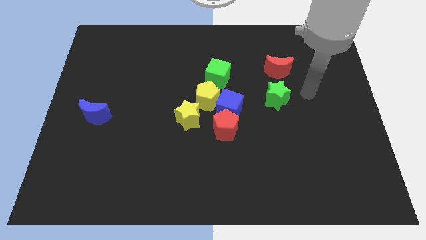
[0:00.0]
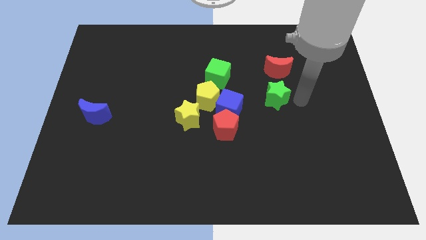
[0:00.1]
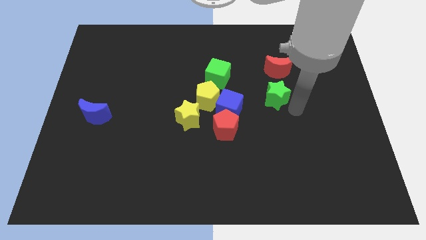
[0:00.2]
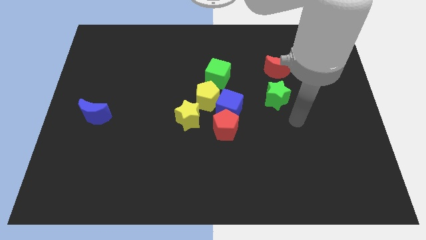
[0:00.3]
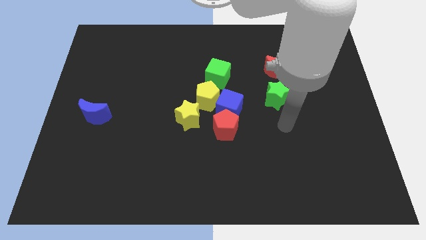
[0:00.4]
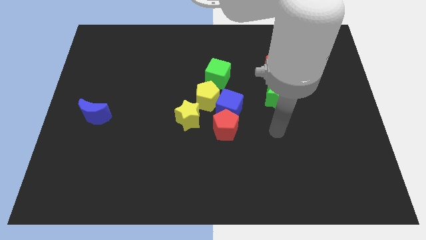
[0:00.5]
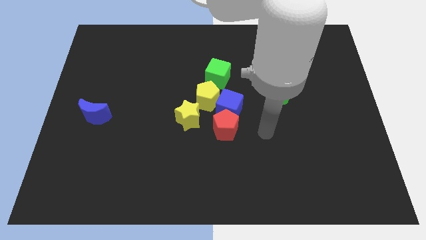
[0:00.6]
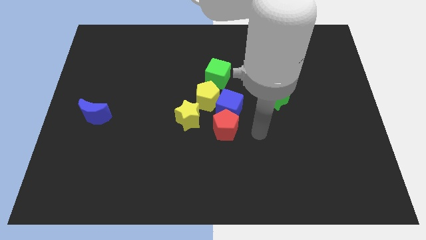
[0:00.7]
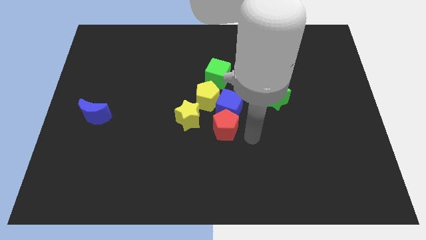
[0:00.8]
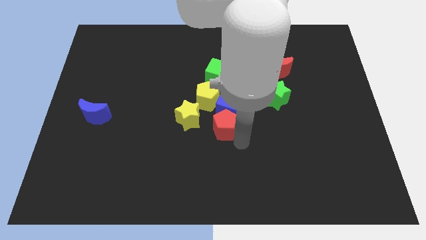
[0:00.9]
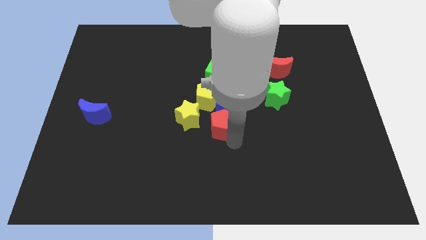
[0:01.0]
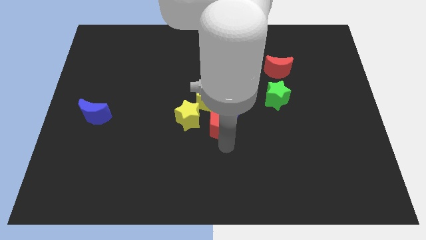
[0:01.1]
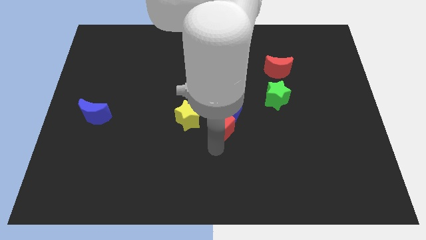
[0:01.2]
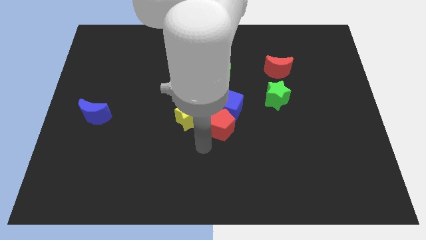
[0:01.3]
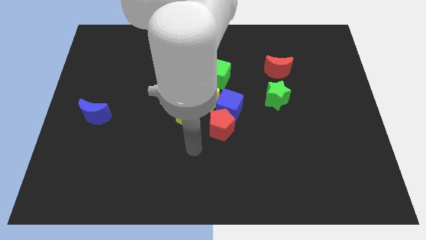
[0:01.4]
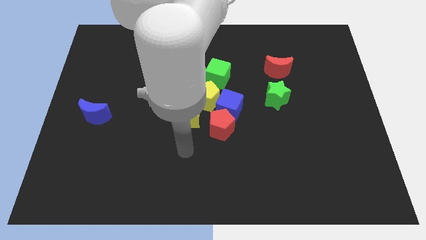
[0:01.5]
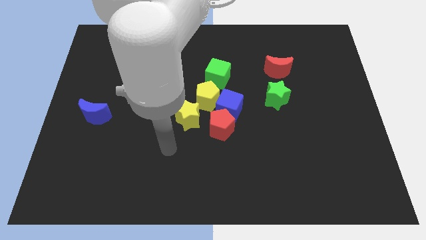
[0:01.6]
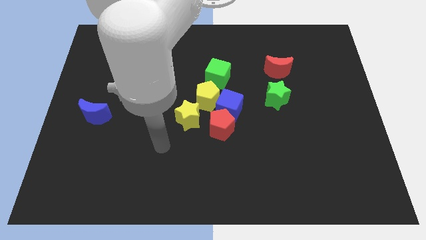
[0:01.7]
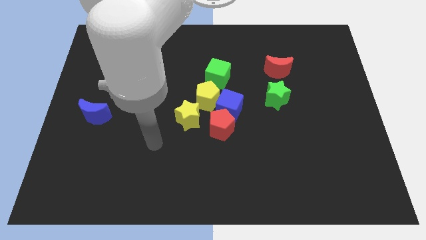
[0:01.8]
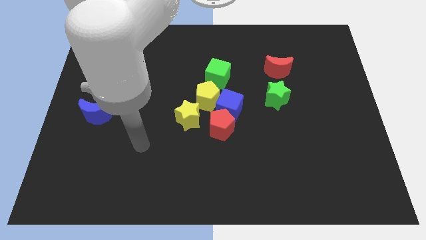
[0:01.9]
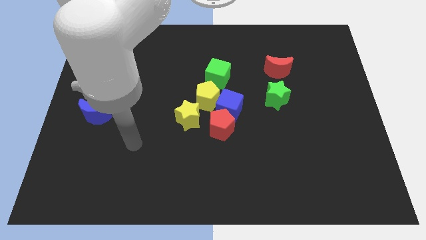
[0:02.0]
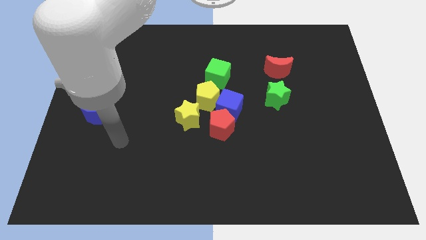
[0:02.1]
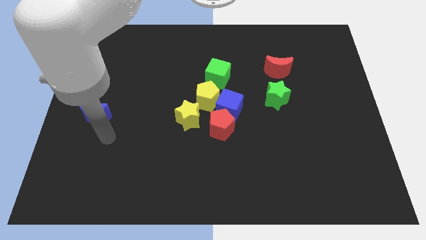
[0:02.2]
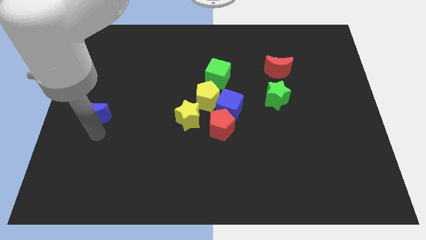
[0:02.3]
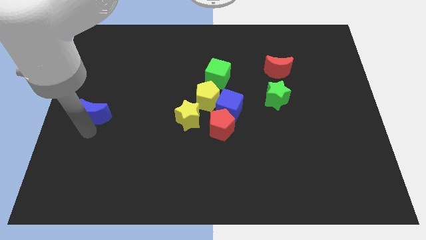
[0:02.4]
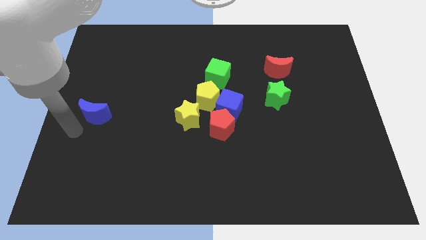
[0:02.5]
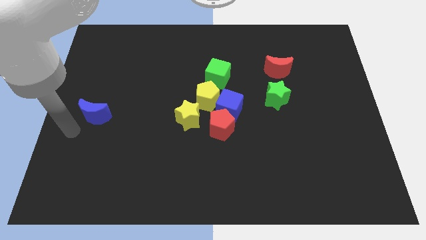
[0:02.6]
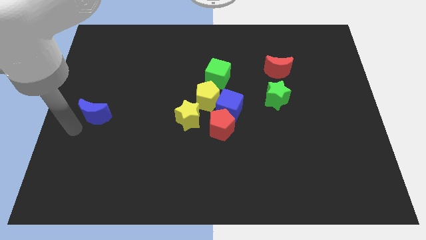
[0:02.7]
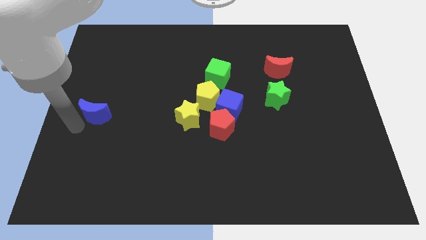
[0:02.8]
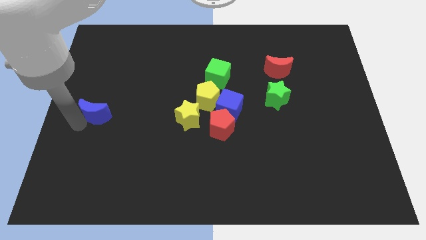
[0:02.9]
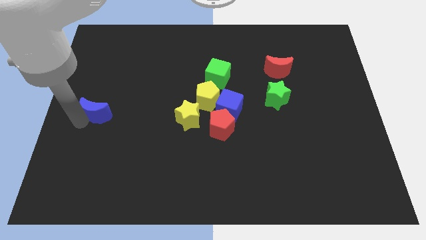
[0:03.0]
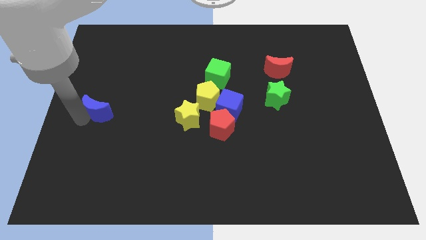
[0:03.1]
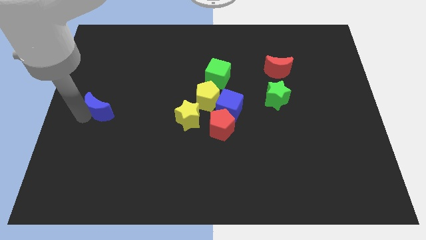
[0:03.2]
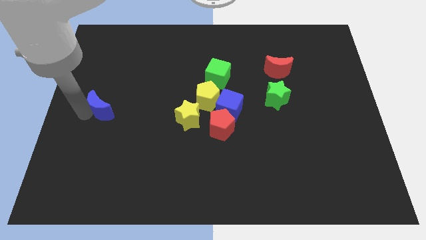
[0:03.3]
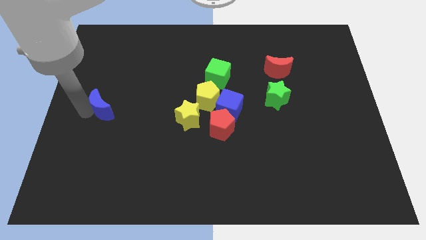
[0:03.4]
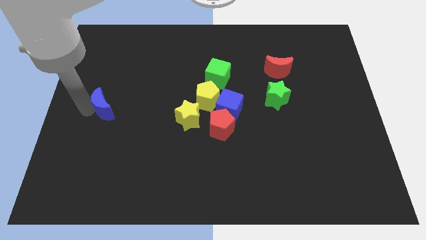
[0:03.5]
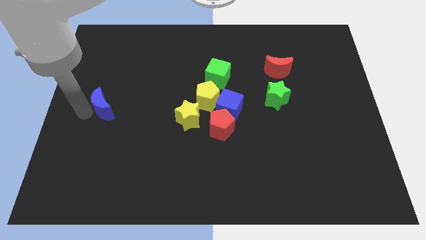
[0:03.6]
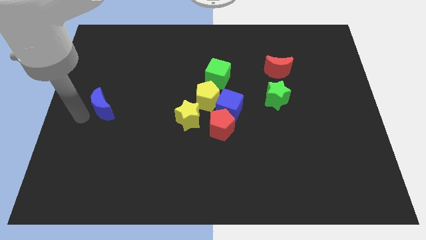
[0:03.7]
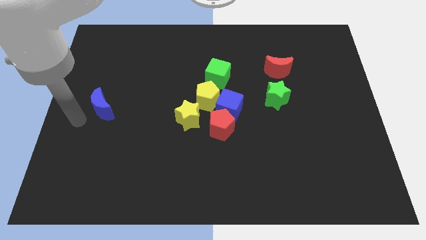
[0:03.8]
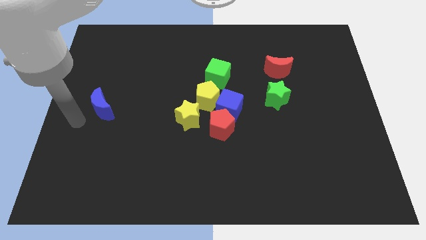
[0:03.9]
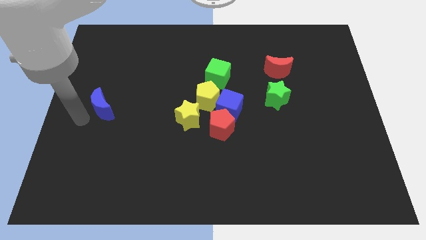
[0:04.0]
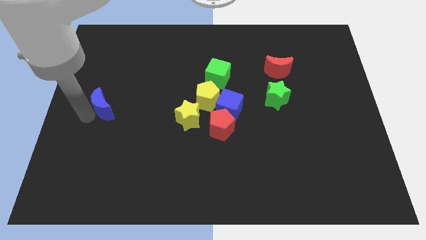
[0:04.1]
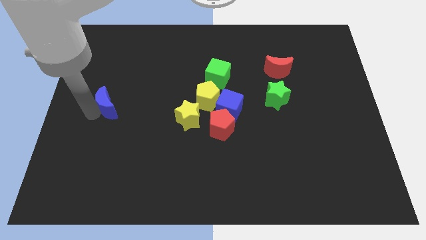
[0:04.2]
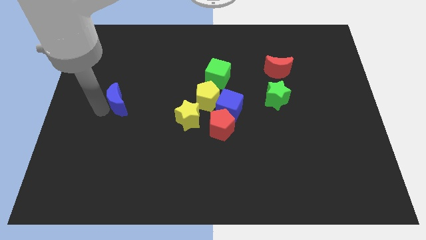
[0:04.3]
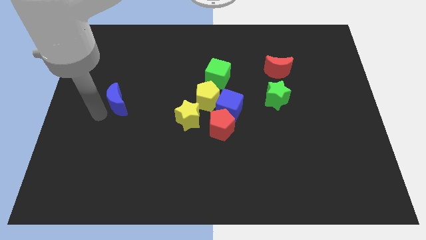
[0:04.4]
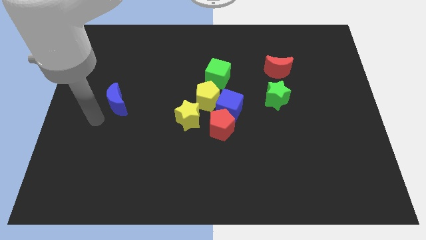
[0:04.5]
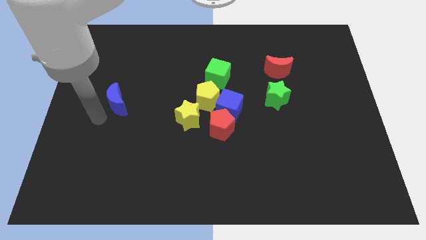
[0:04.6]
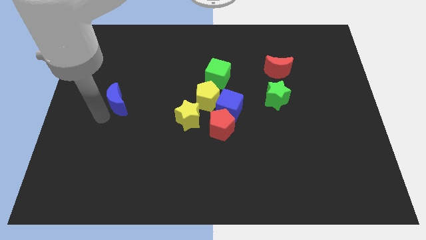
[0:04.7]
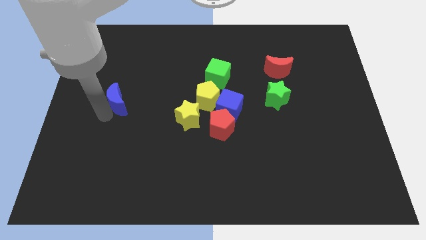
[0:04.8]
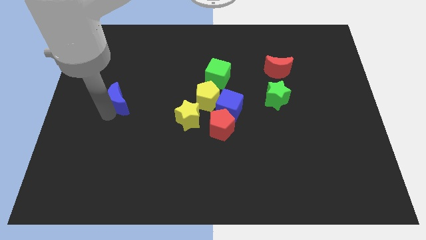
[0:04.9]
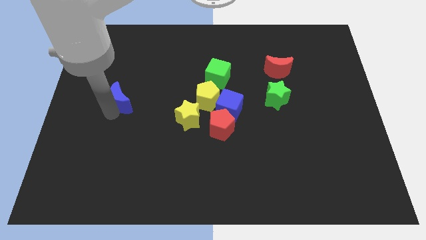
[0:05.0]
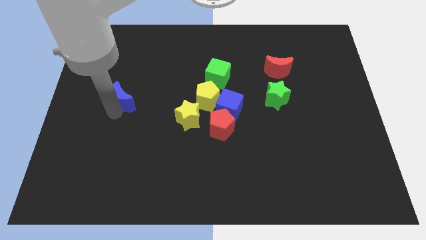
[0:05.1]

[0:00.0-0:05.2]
push the blue moon up and to the right a little bit

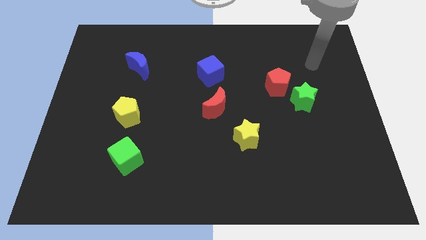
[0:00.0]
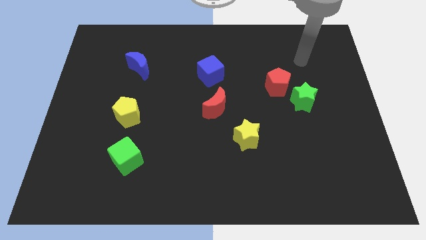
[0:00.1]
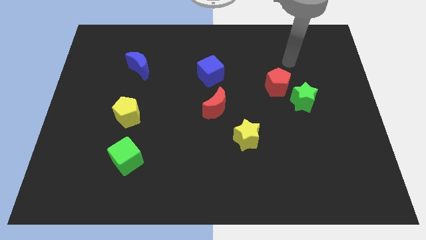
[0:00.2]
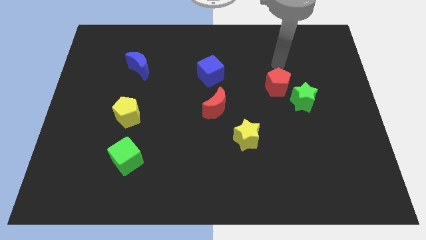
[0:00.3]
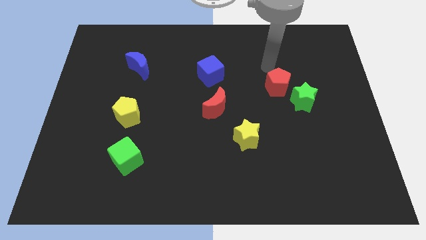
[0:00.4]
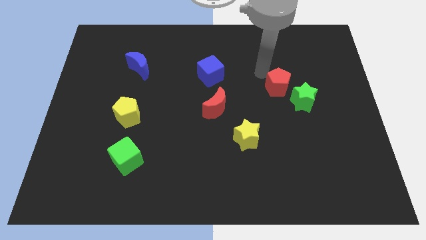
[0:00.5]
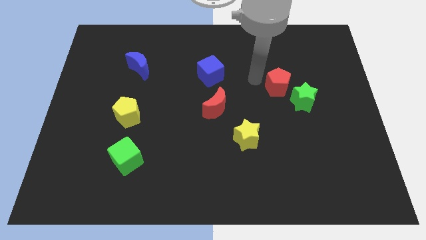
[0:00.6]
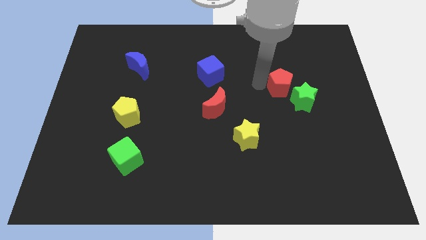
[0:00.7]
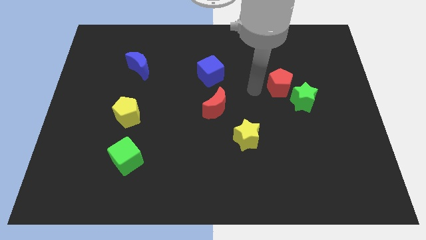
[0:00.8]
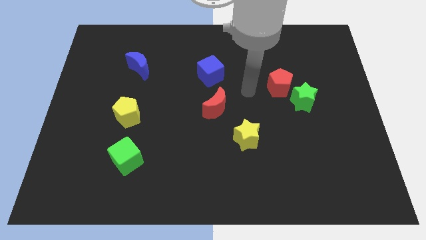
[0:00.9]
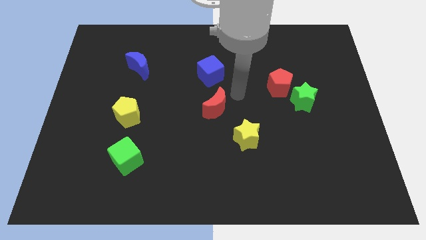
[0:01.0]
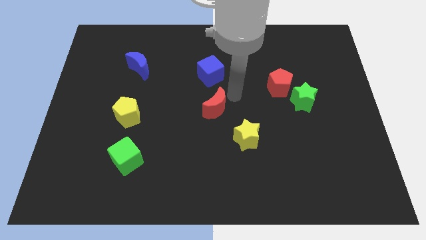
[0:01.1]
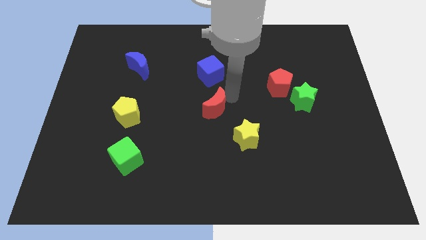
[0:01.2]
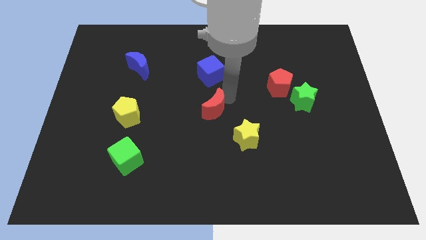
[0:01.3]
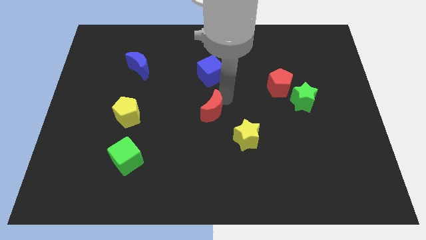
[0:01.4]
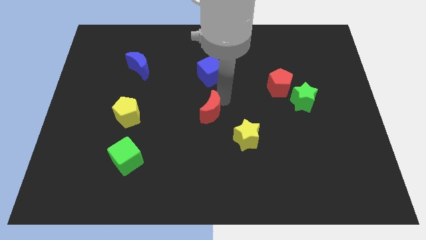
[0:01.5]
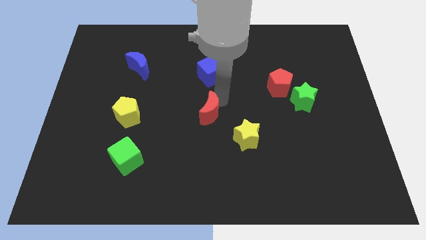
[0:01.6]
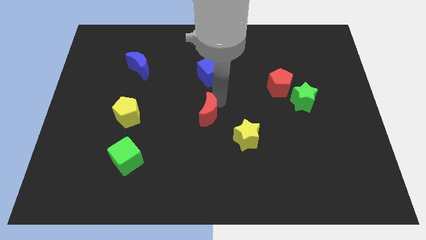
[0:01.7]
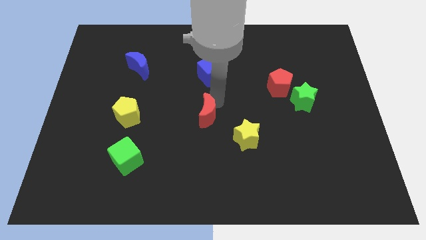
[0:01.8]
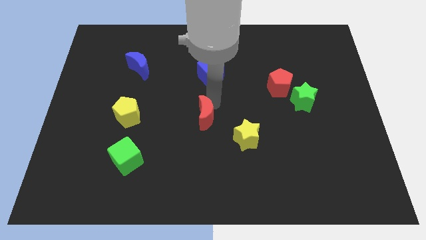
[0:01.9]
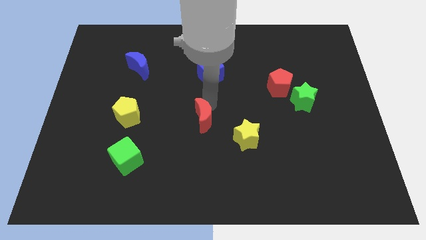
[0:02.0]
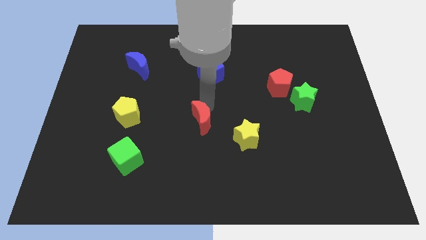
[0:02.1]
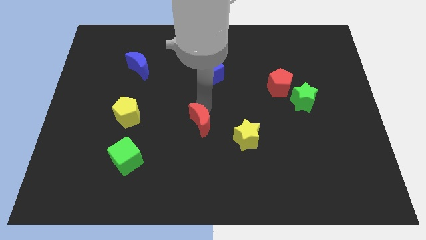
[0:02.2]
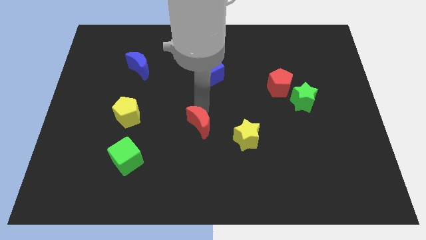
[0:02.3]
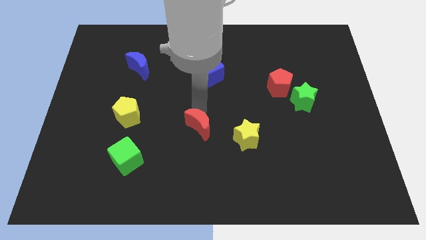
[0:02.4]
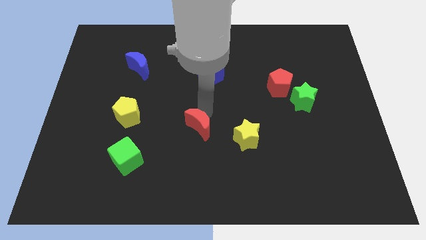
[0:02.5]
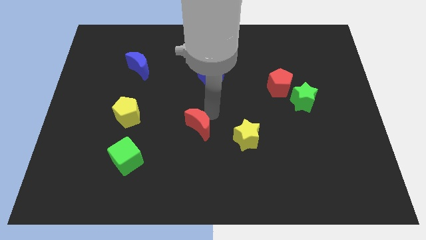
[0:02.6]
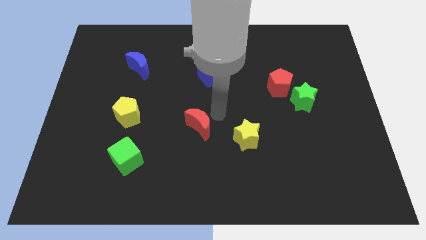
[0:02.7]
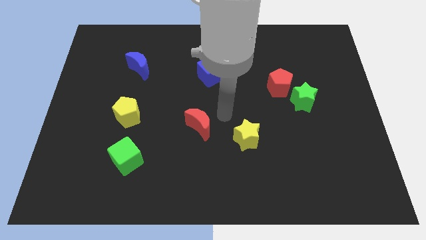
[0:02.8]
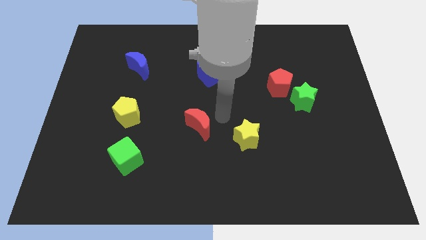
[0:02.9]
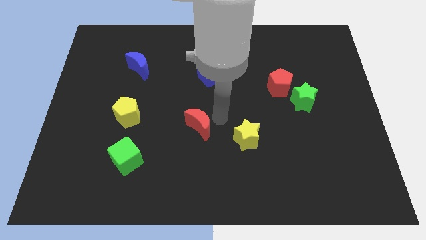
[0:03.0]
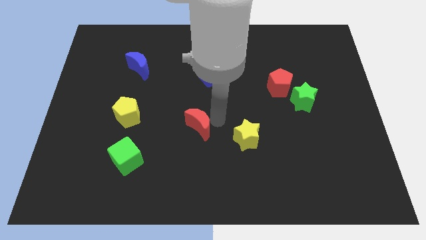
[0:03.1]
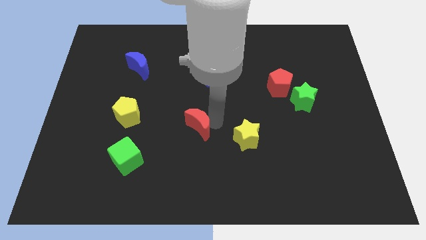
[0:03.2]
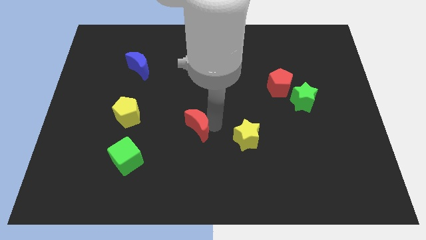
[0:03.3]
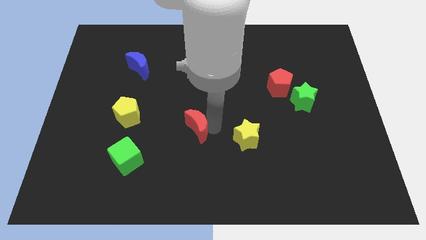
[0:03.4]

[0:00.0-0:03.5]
move the red moon downwards and then left a little
